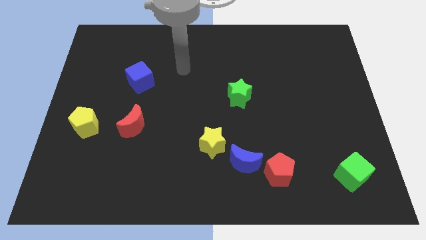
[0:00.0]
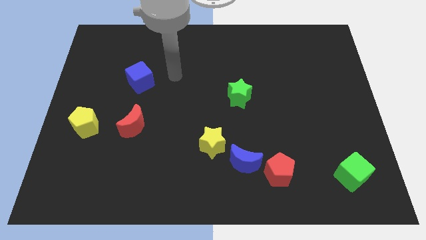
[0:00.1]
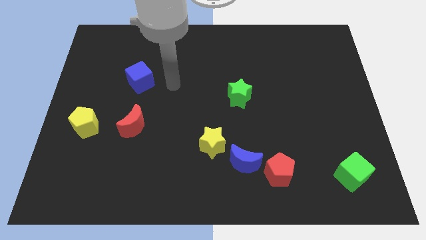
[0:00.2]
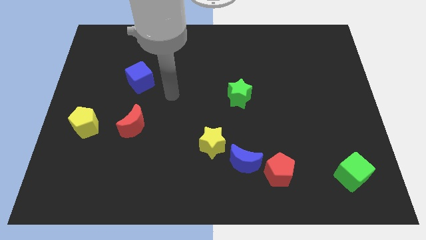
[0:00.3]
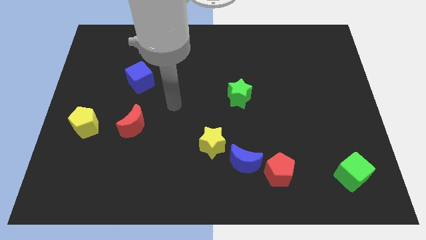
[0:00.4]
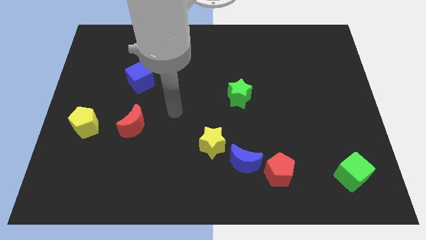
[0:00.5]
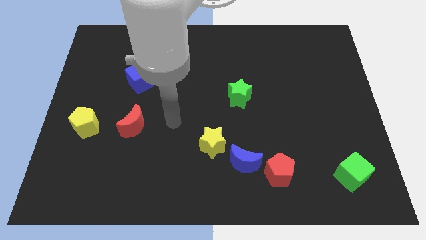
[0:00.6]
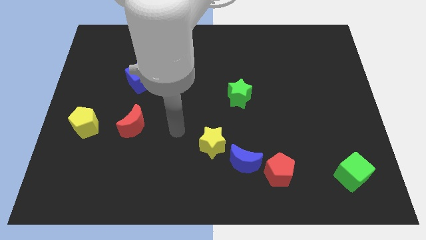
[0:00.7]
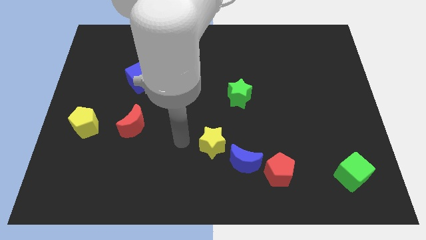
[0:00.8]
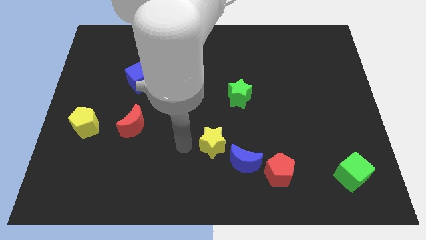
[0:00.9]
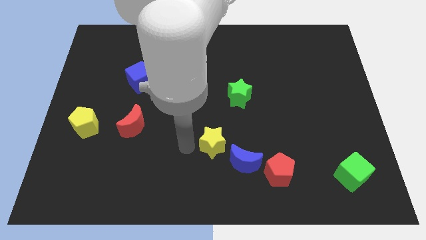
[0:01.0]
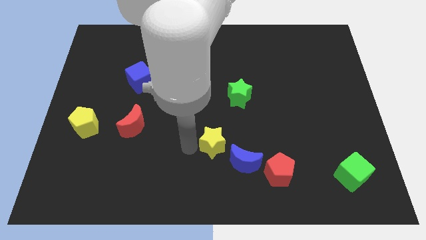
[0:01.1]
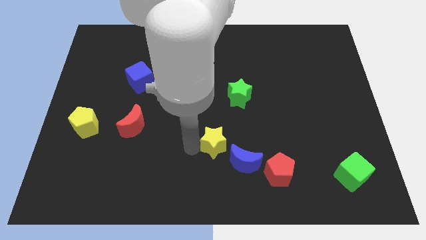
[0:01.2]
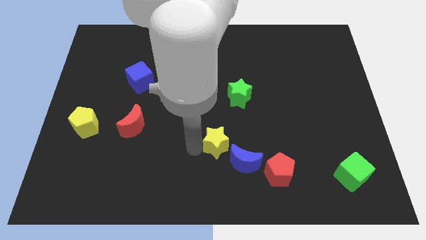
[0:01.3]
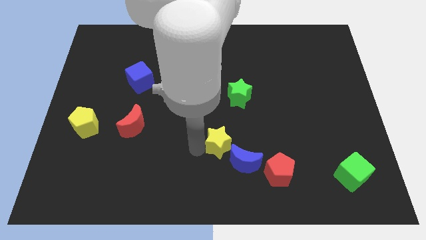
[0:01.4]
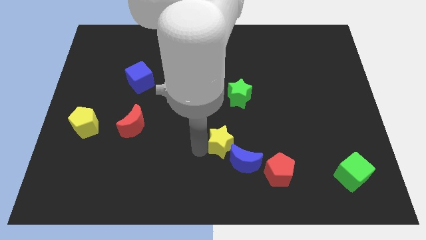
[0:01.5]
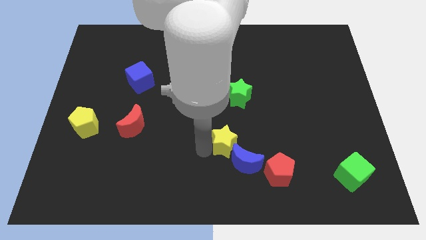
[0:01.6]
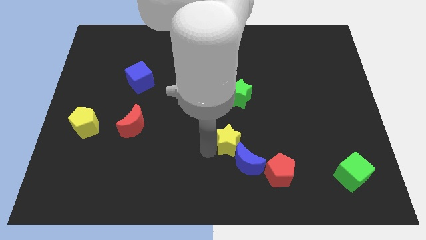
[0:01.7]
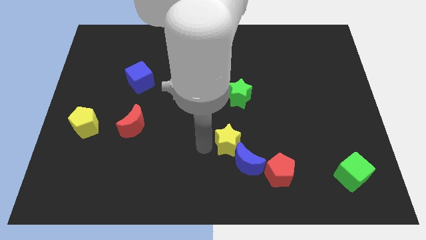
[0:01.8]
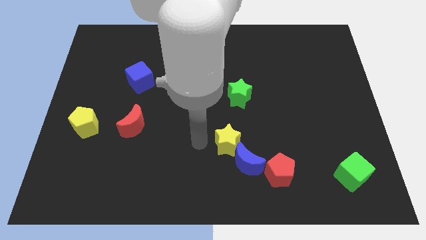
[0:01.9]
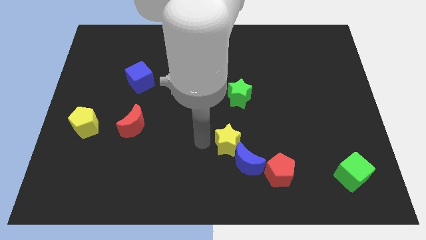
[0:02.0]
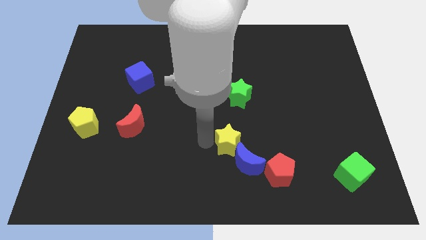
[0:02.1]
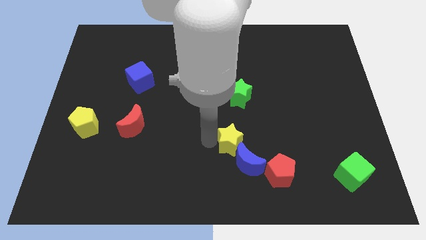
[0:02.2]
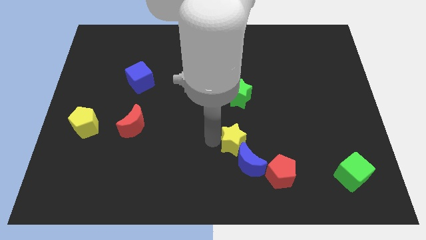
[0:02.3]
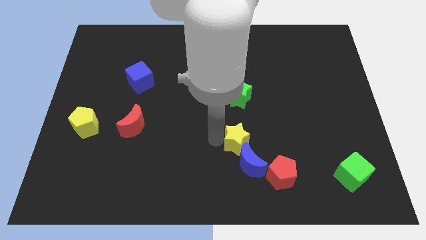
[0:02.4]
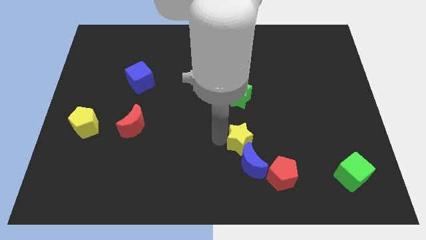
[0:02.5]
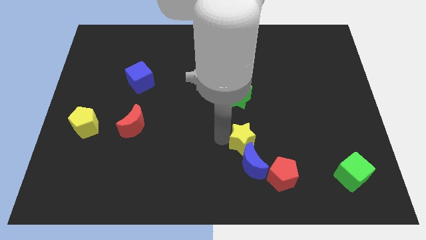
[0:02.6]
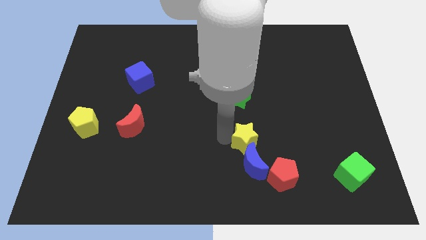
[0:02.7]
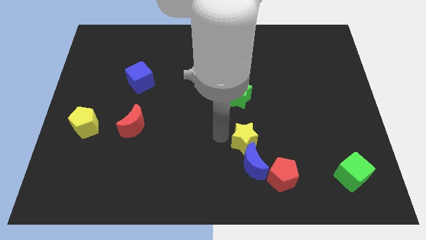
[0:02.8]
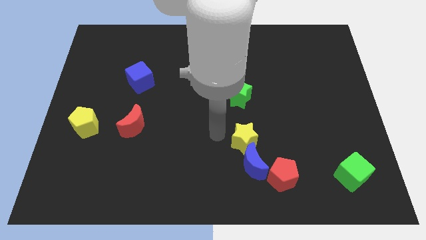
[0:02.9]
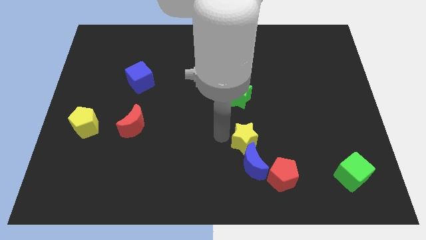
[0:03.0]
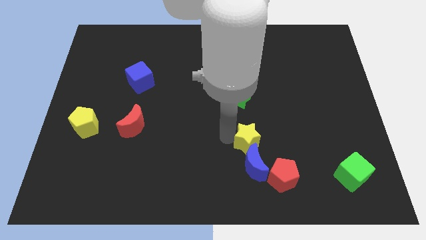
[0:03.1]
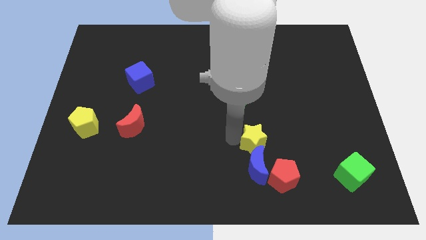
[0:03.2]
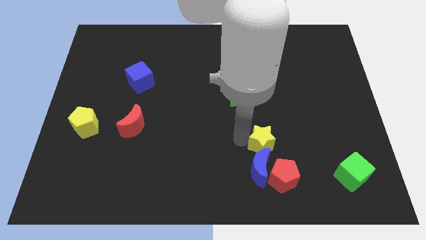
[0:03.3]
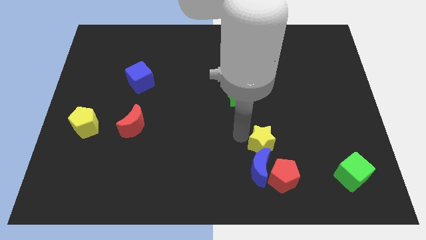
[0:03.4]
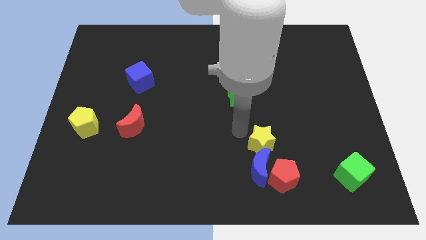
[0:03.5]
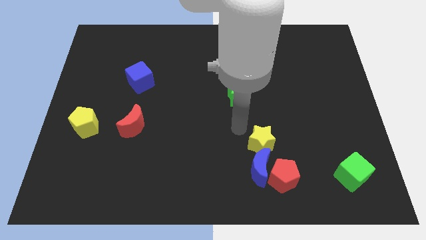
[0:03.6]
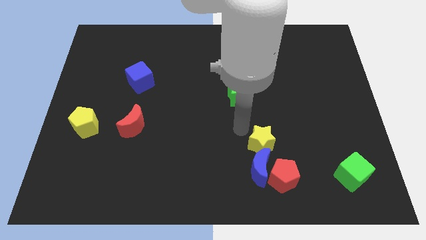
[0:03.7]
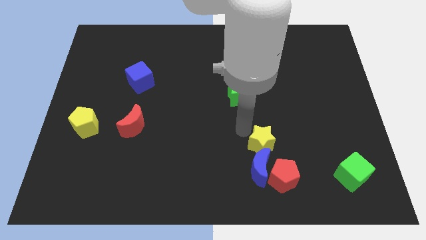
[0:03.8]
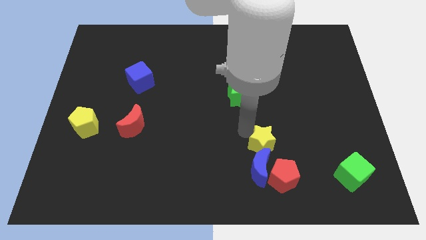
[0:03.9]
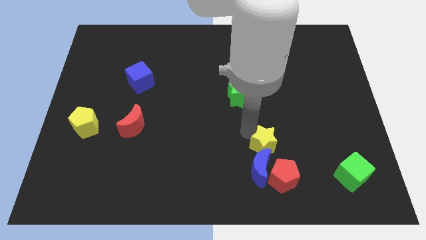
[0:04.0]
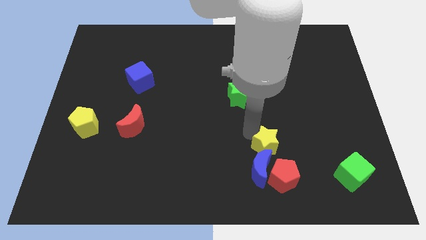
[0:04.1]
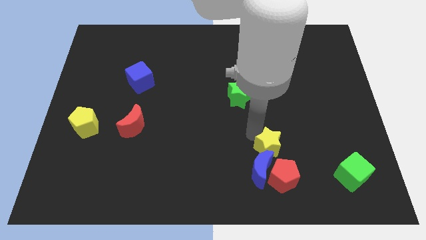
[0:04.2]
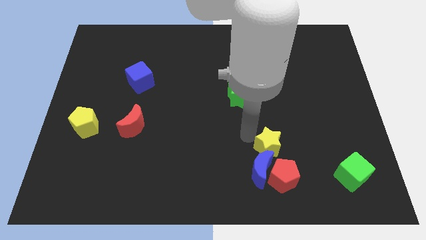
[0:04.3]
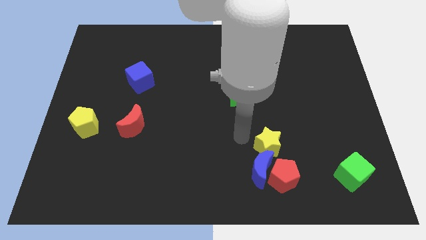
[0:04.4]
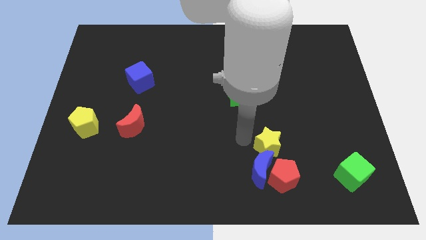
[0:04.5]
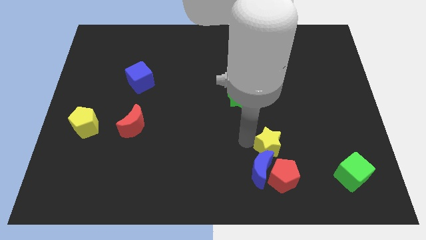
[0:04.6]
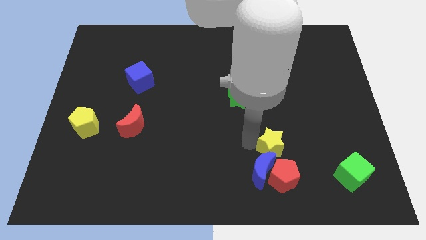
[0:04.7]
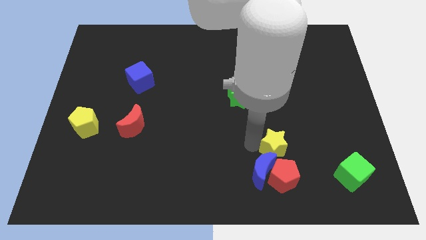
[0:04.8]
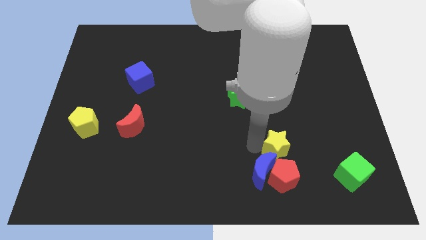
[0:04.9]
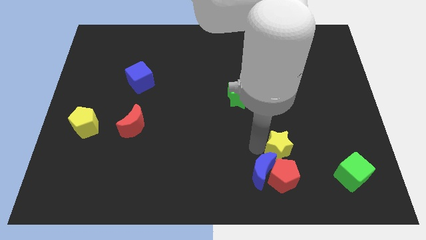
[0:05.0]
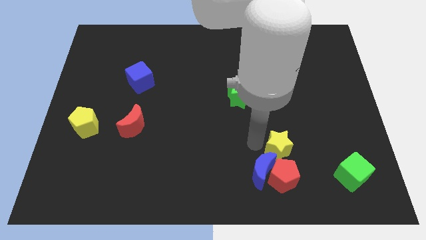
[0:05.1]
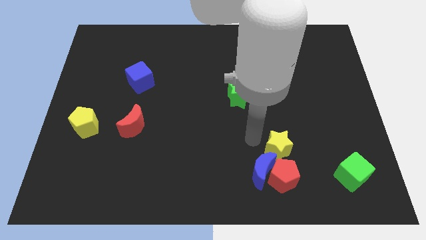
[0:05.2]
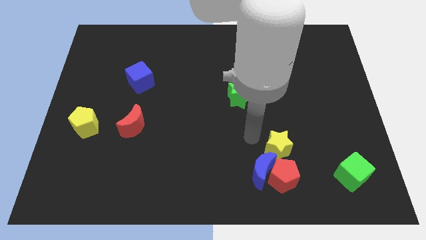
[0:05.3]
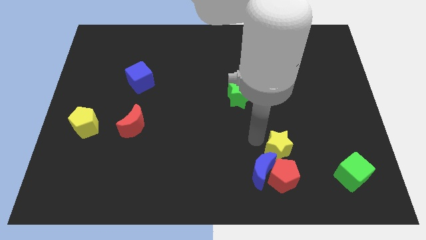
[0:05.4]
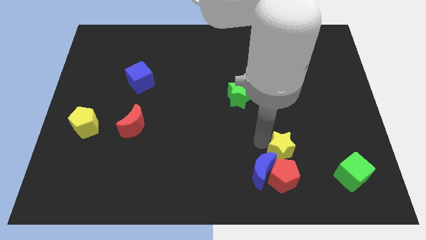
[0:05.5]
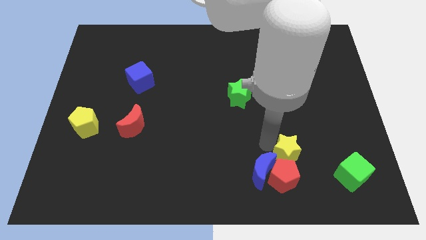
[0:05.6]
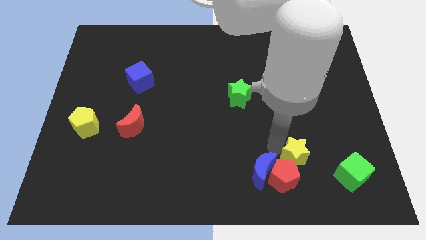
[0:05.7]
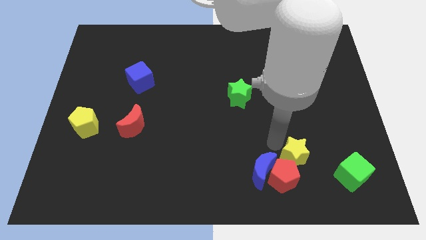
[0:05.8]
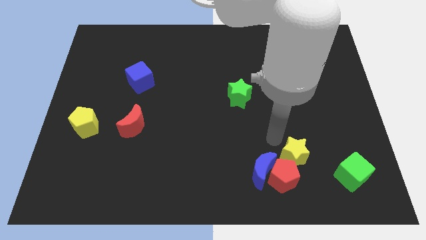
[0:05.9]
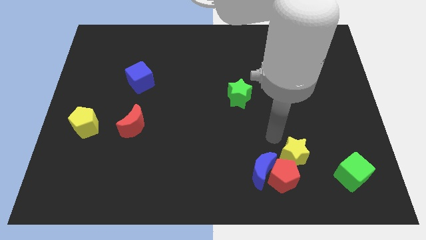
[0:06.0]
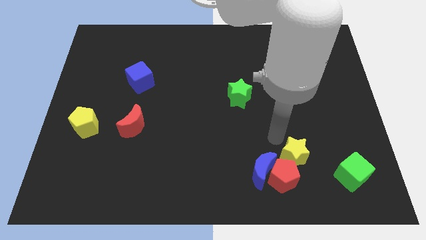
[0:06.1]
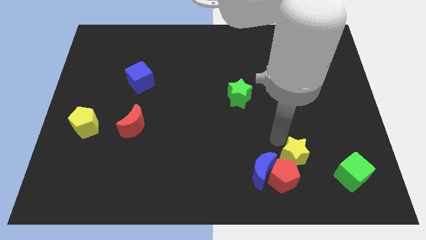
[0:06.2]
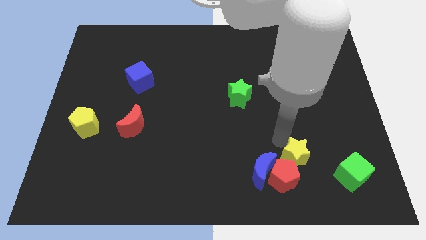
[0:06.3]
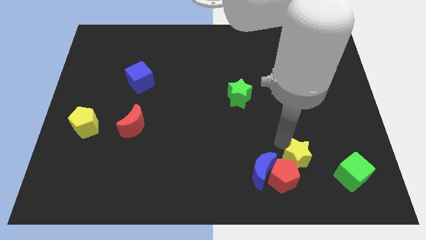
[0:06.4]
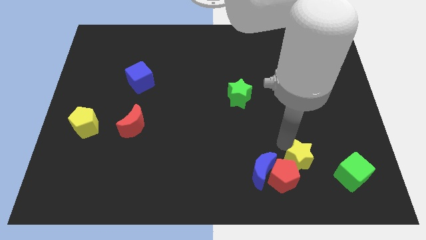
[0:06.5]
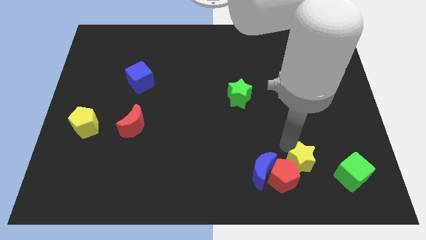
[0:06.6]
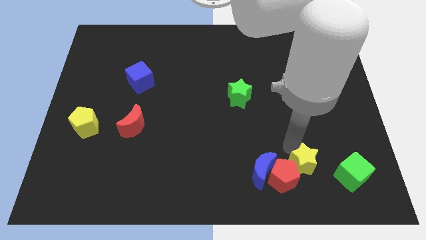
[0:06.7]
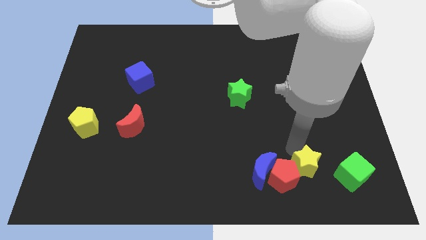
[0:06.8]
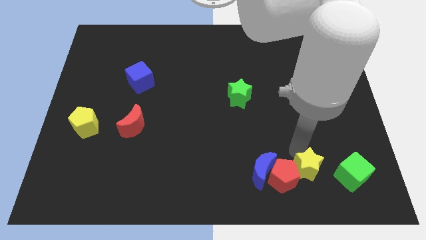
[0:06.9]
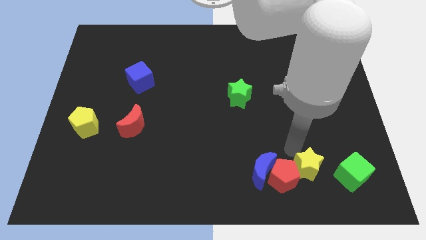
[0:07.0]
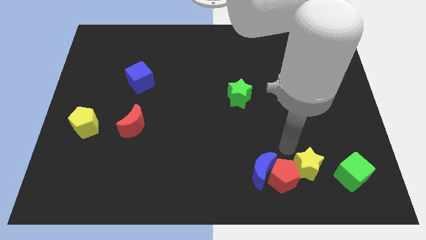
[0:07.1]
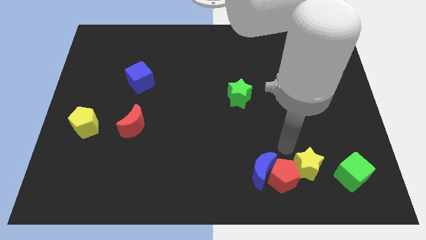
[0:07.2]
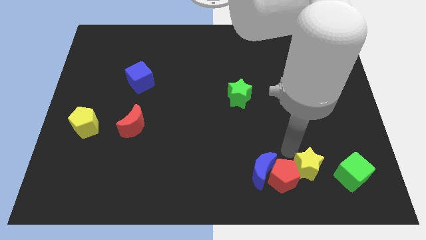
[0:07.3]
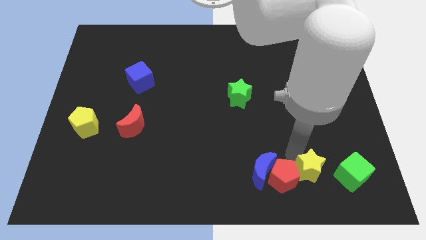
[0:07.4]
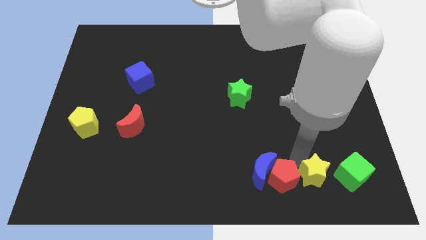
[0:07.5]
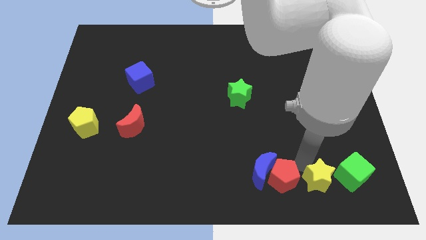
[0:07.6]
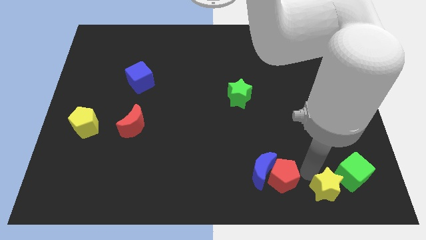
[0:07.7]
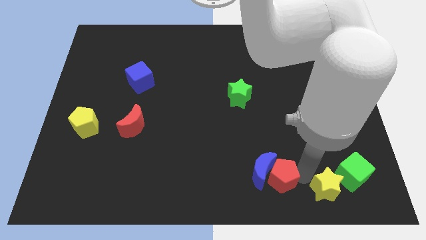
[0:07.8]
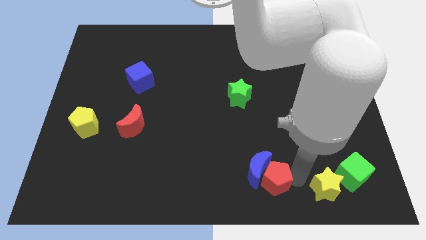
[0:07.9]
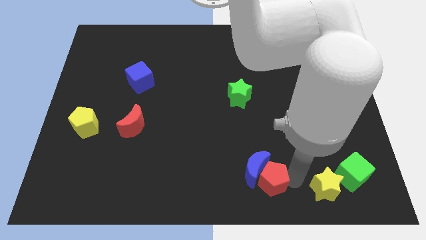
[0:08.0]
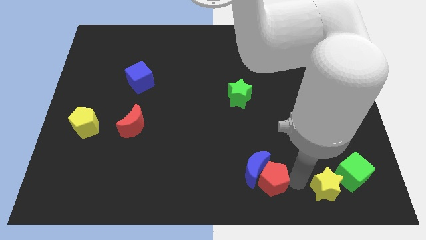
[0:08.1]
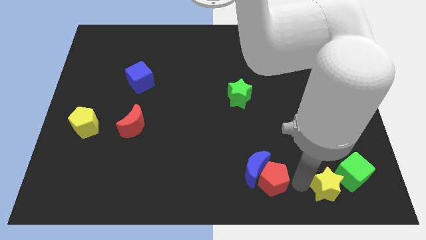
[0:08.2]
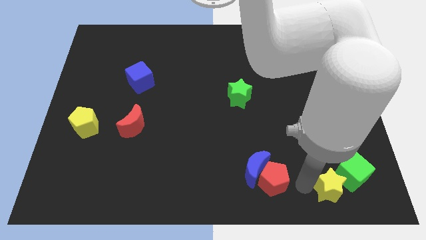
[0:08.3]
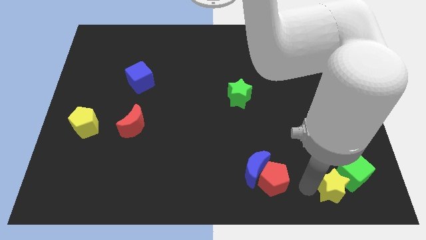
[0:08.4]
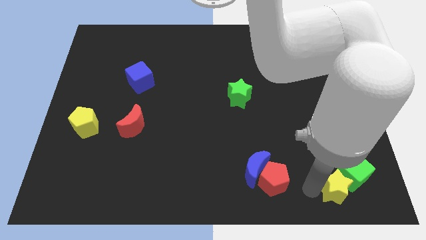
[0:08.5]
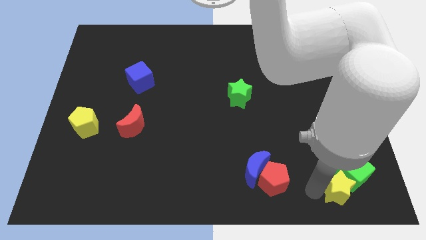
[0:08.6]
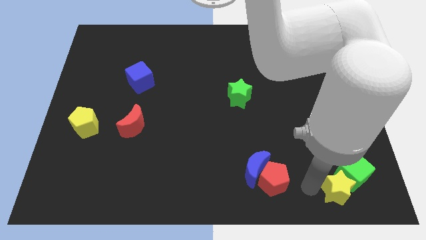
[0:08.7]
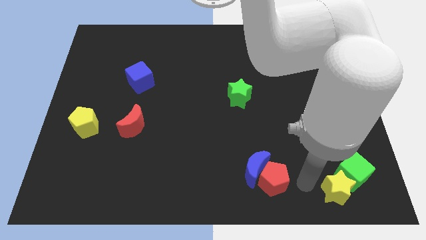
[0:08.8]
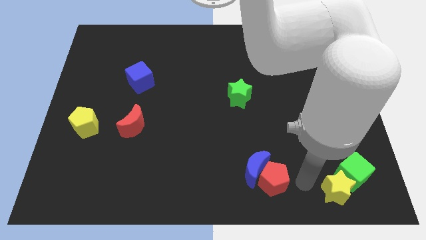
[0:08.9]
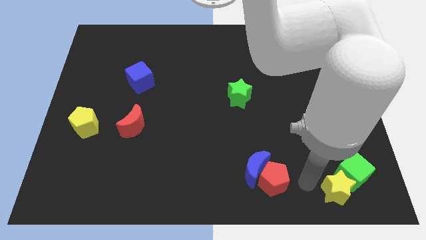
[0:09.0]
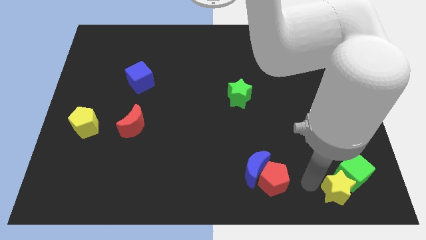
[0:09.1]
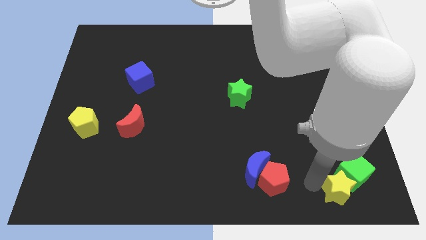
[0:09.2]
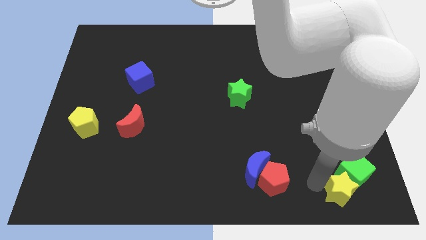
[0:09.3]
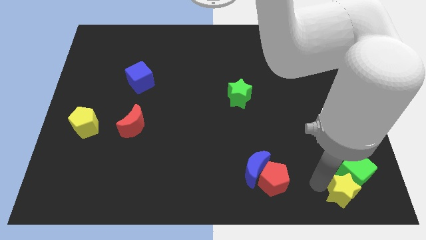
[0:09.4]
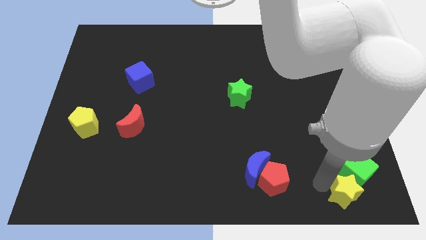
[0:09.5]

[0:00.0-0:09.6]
put the yellow star to the bottom right corner
